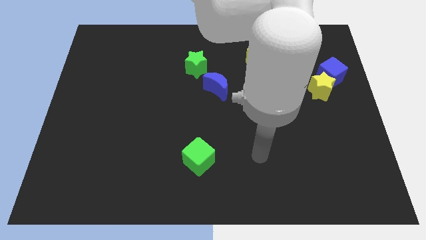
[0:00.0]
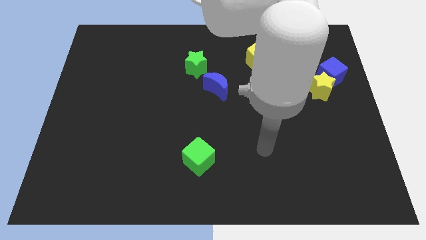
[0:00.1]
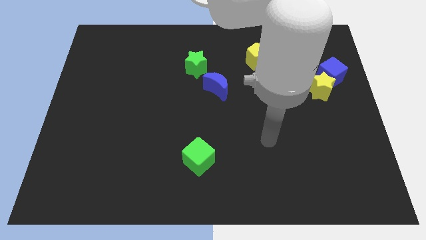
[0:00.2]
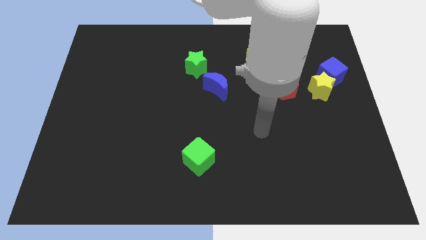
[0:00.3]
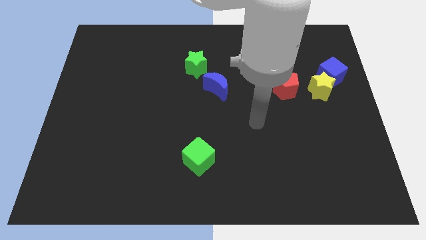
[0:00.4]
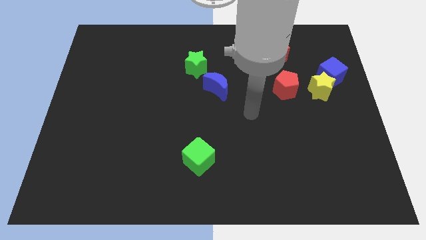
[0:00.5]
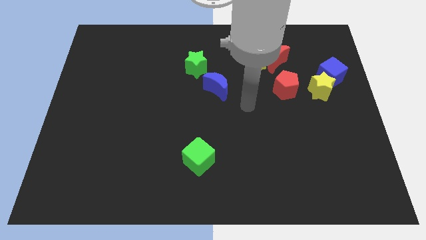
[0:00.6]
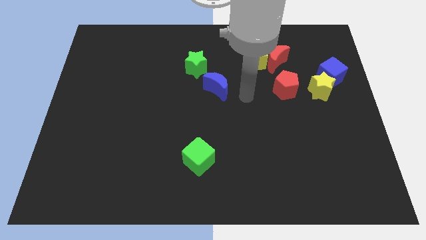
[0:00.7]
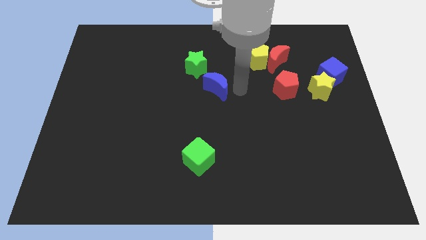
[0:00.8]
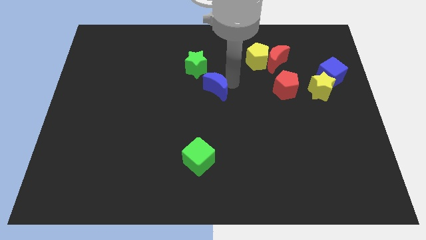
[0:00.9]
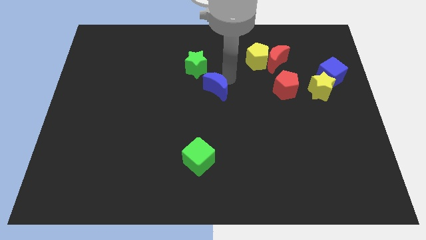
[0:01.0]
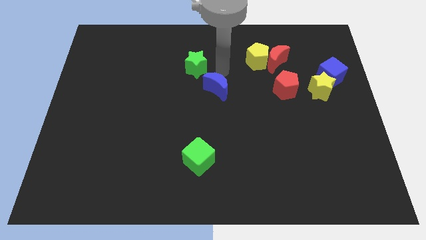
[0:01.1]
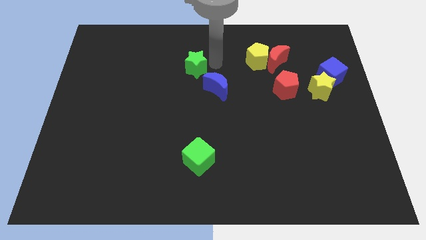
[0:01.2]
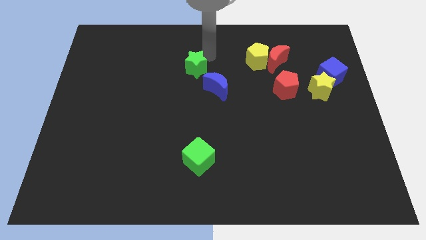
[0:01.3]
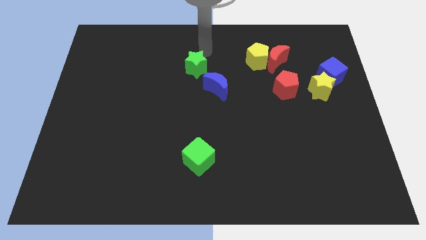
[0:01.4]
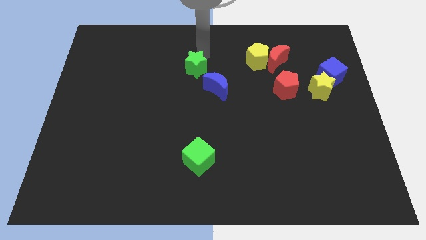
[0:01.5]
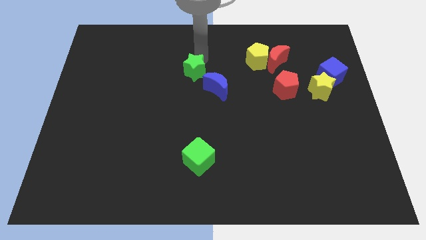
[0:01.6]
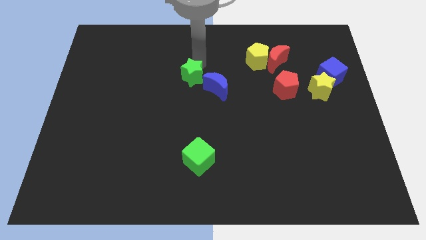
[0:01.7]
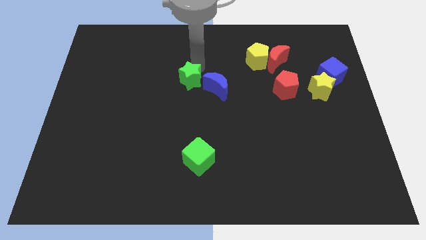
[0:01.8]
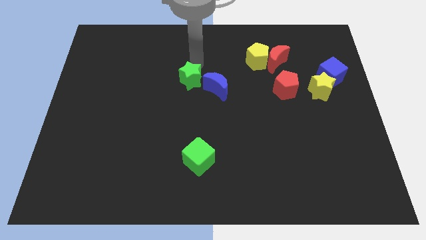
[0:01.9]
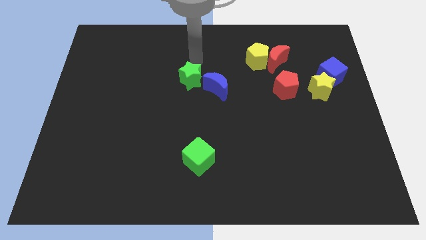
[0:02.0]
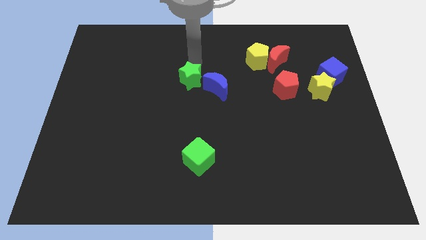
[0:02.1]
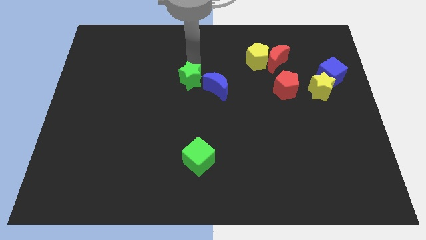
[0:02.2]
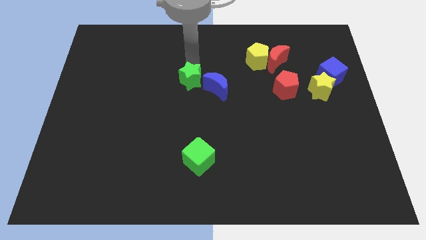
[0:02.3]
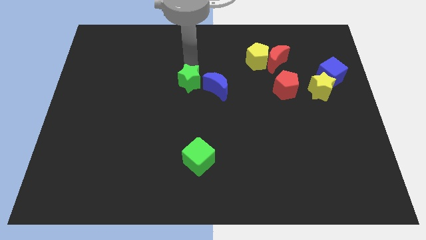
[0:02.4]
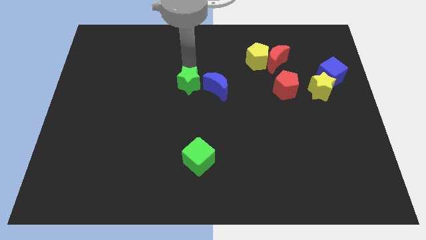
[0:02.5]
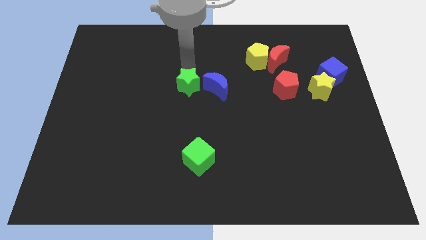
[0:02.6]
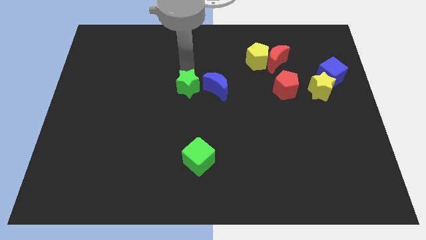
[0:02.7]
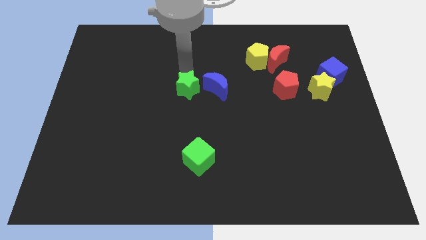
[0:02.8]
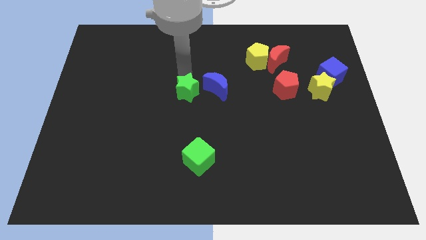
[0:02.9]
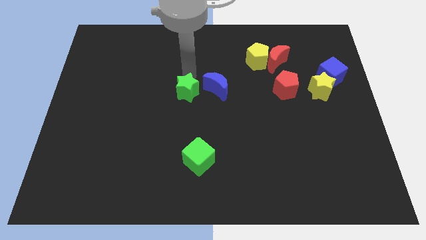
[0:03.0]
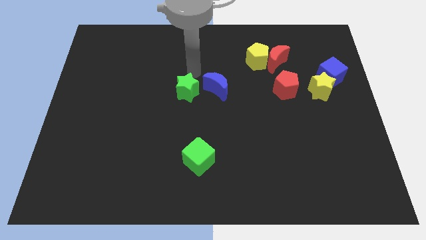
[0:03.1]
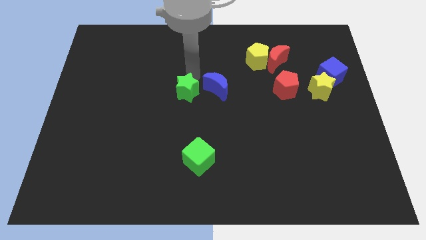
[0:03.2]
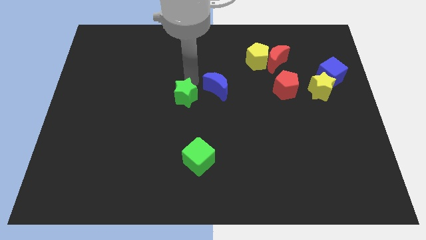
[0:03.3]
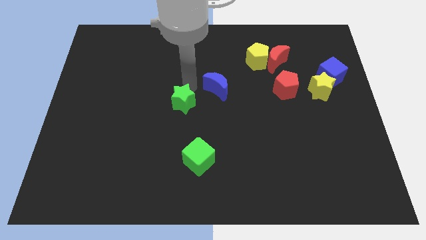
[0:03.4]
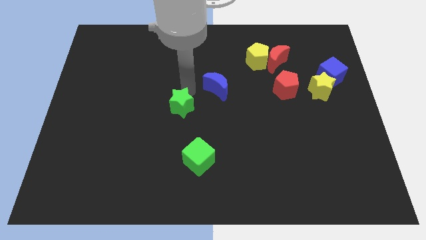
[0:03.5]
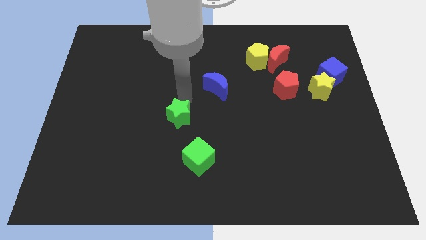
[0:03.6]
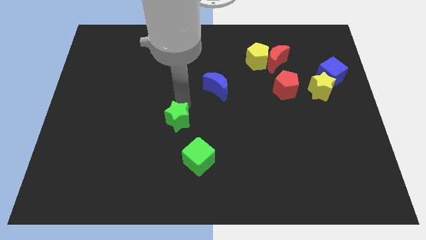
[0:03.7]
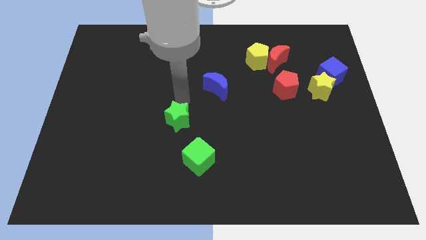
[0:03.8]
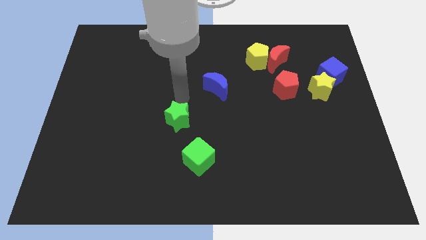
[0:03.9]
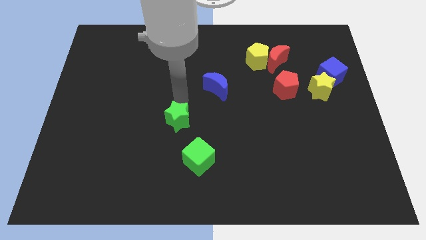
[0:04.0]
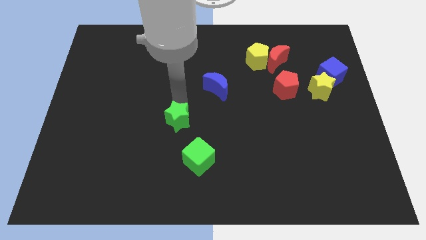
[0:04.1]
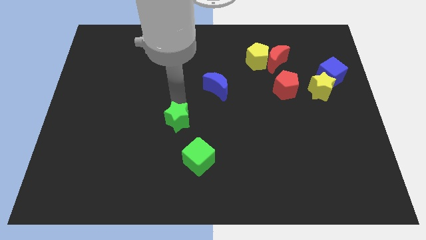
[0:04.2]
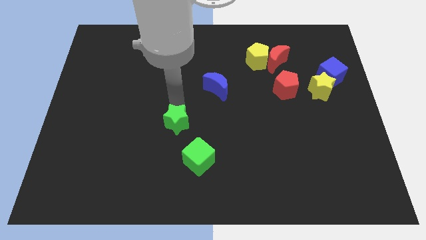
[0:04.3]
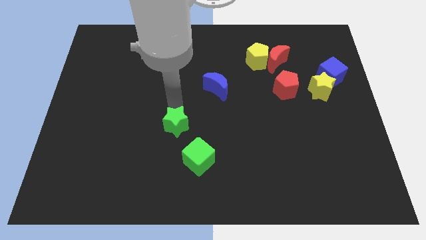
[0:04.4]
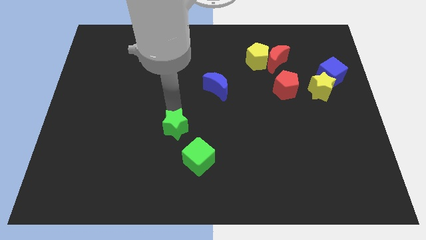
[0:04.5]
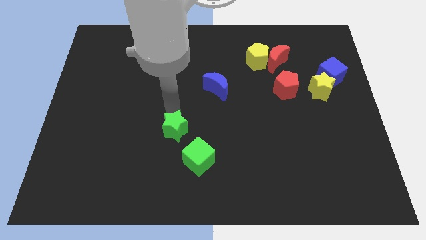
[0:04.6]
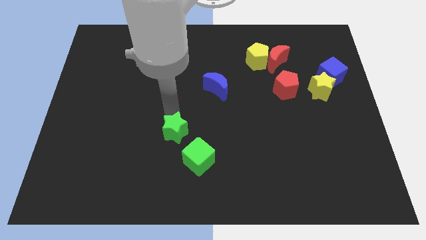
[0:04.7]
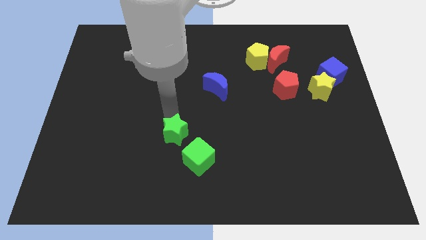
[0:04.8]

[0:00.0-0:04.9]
move the green star down

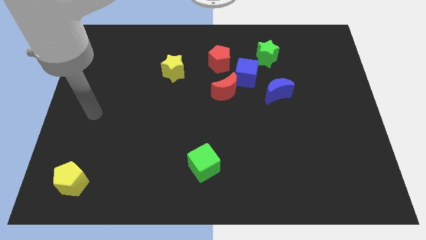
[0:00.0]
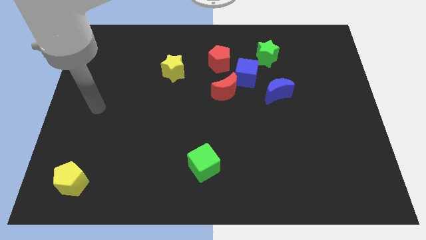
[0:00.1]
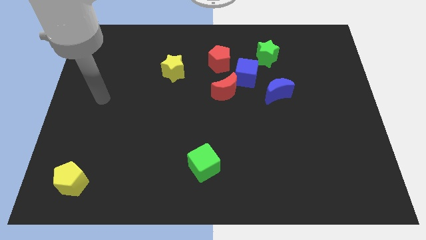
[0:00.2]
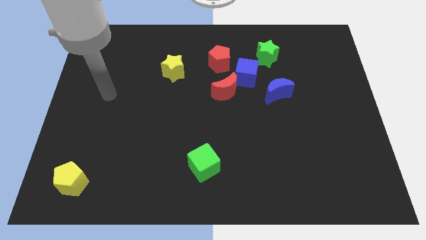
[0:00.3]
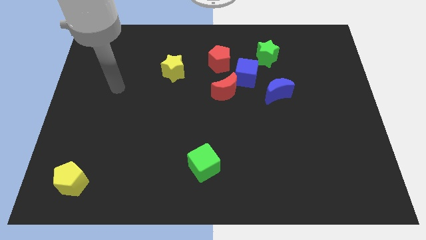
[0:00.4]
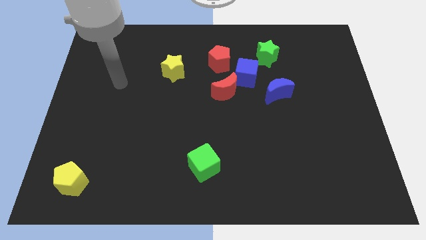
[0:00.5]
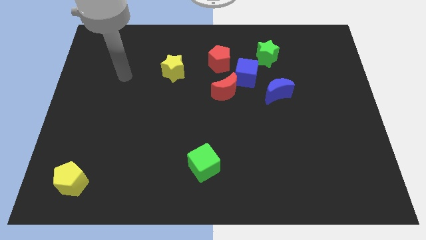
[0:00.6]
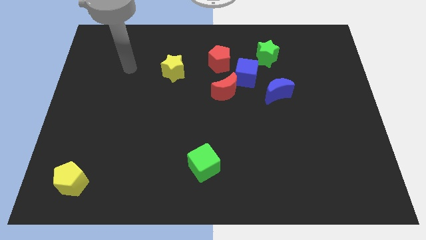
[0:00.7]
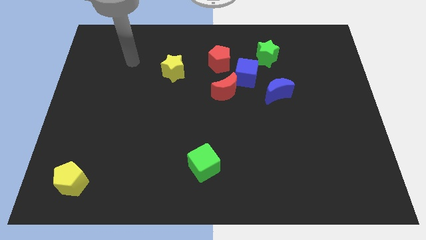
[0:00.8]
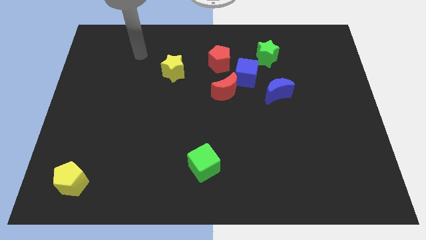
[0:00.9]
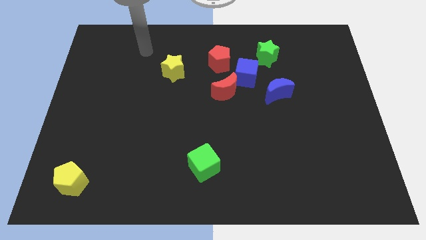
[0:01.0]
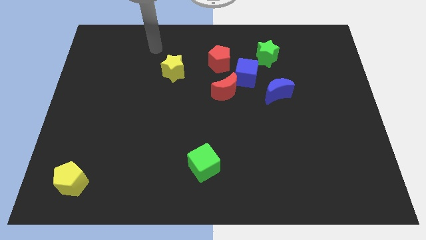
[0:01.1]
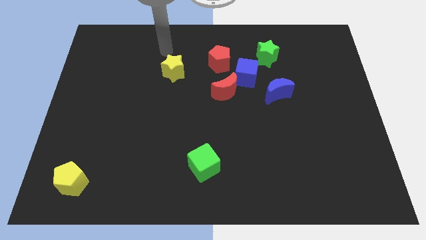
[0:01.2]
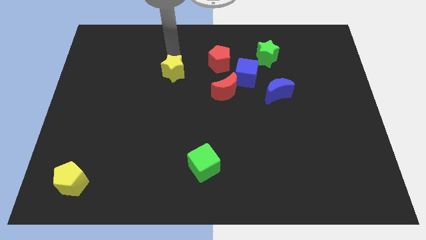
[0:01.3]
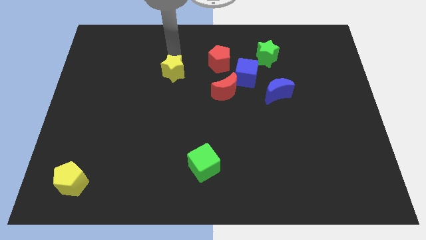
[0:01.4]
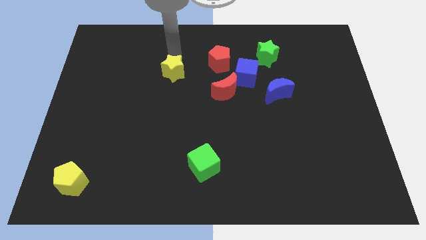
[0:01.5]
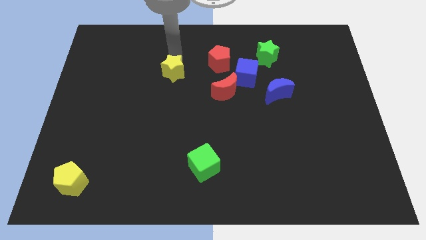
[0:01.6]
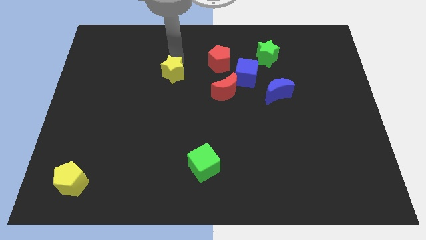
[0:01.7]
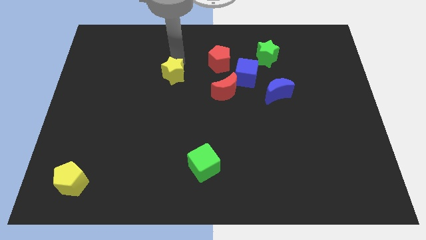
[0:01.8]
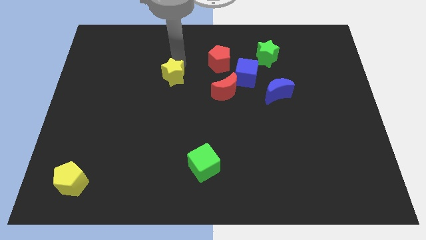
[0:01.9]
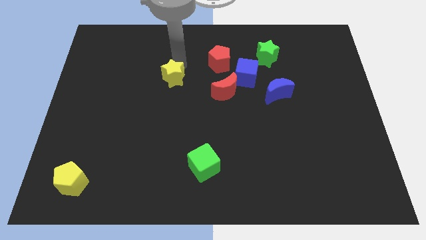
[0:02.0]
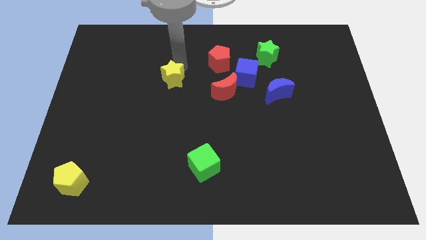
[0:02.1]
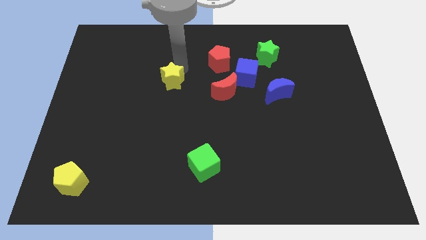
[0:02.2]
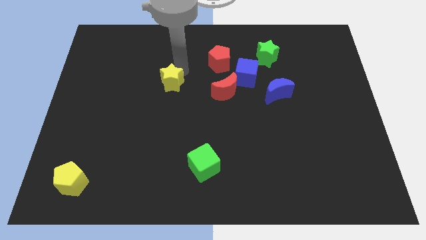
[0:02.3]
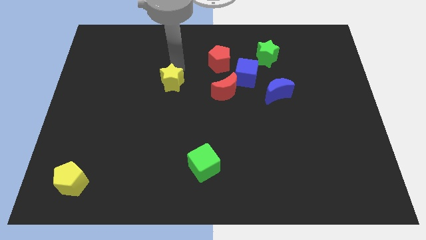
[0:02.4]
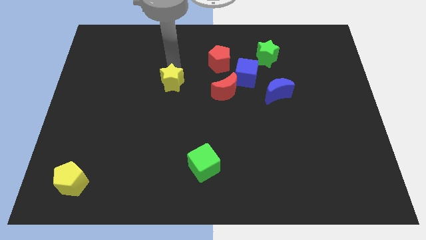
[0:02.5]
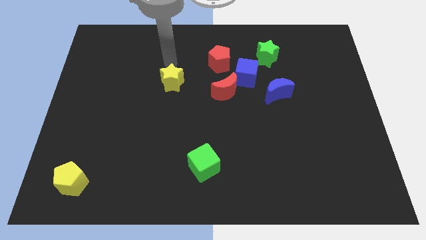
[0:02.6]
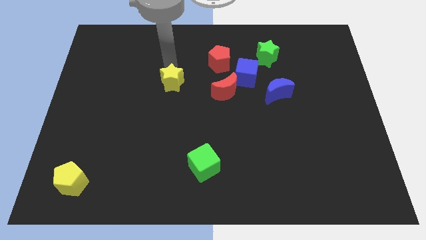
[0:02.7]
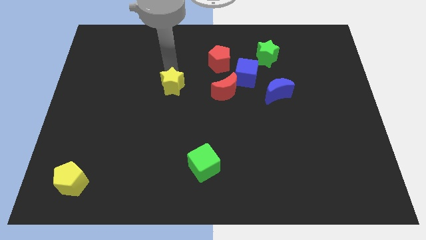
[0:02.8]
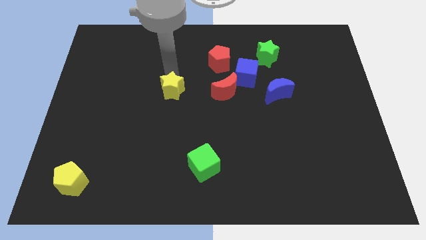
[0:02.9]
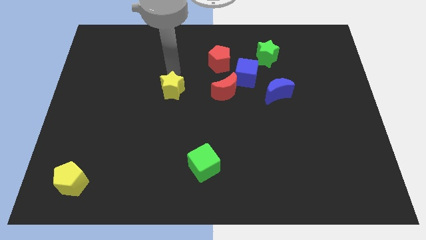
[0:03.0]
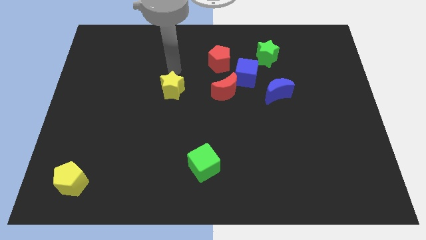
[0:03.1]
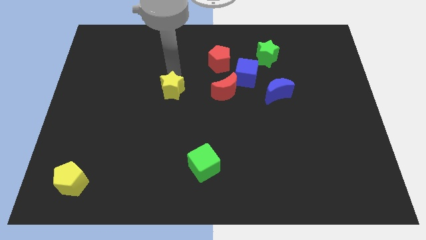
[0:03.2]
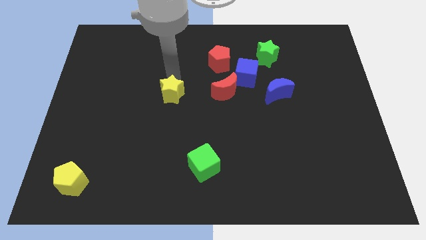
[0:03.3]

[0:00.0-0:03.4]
push the yellow star a bit downwards
